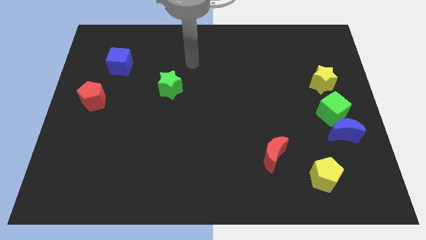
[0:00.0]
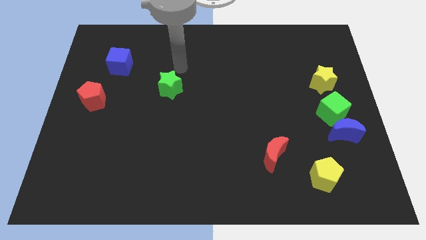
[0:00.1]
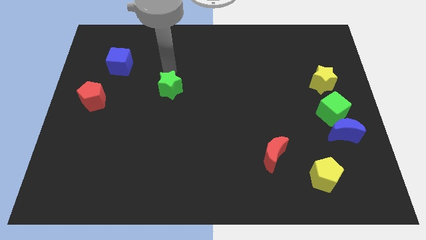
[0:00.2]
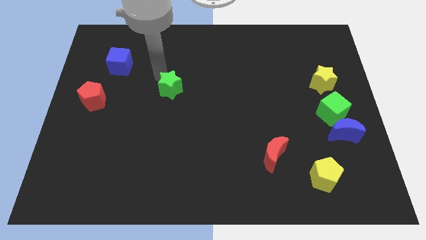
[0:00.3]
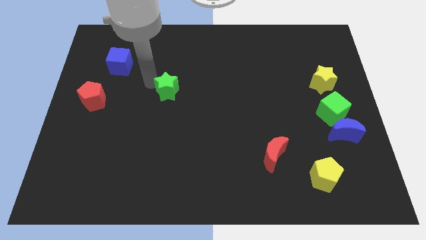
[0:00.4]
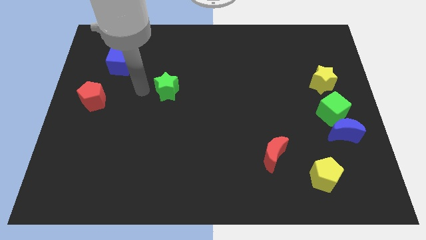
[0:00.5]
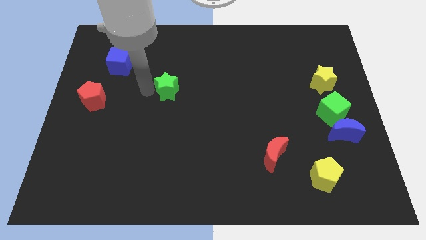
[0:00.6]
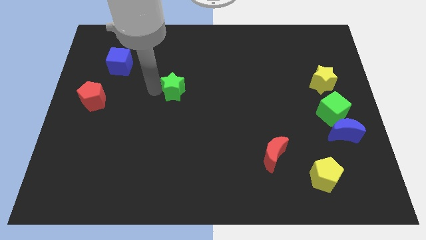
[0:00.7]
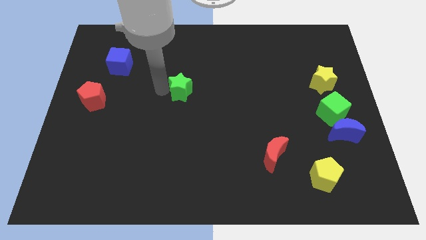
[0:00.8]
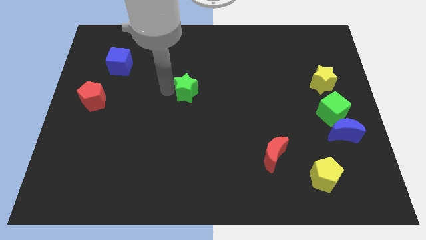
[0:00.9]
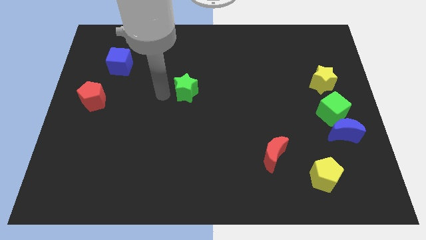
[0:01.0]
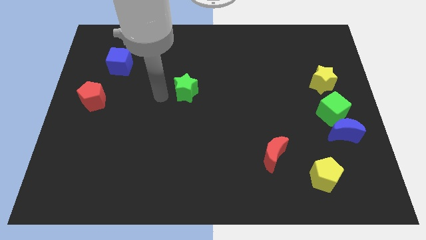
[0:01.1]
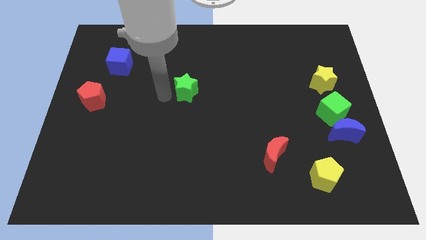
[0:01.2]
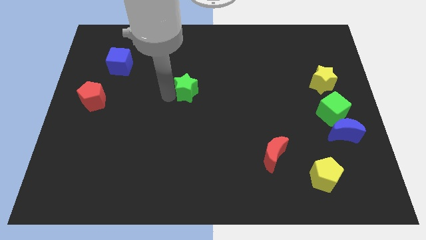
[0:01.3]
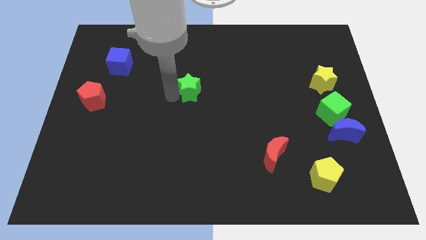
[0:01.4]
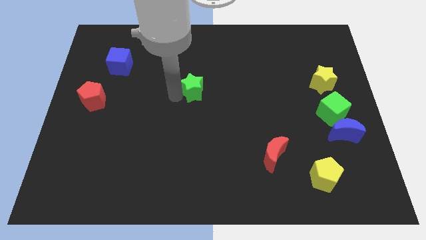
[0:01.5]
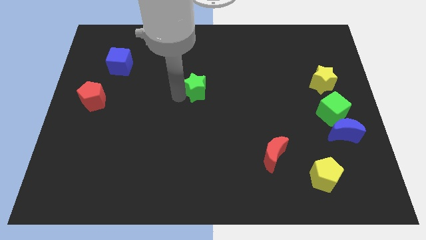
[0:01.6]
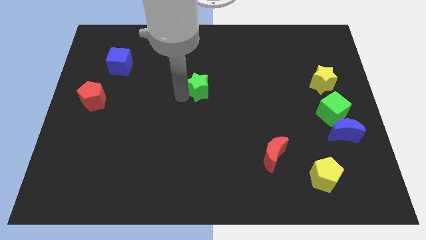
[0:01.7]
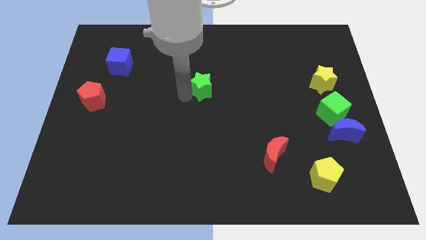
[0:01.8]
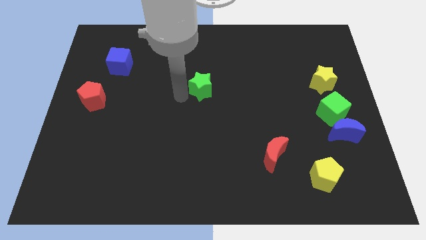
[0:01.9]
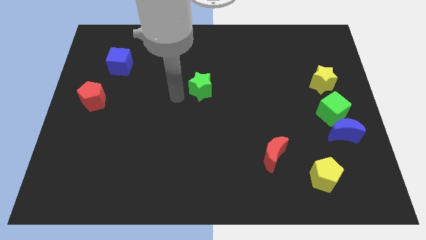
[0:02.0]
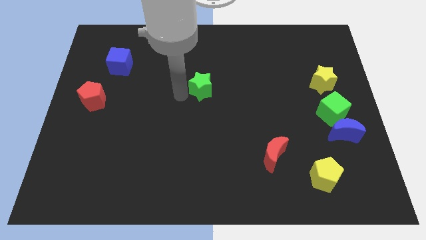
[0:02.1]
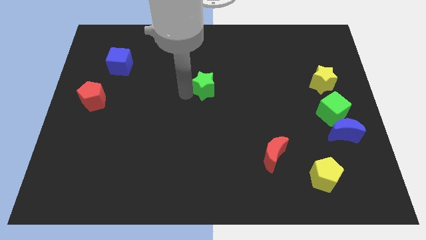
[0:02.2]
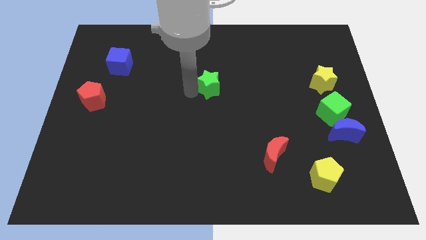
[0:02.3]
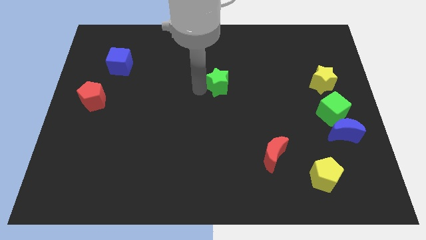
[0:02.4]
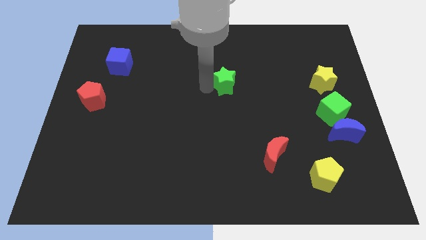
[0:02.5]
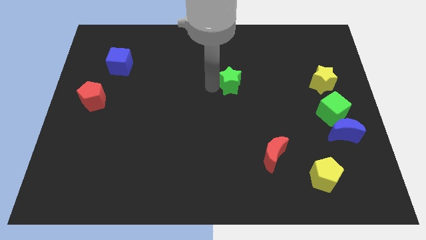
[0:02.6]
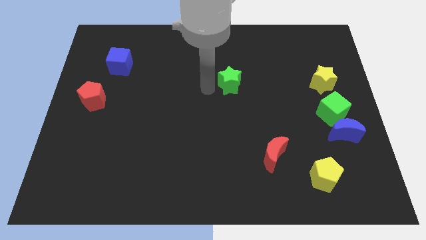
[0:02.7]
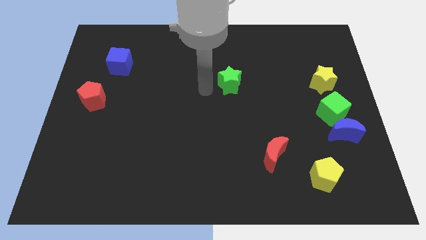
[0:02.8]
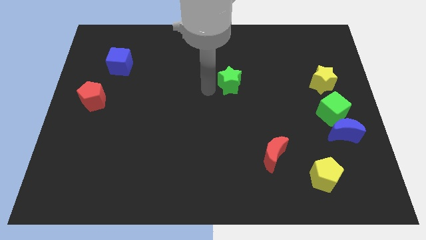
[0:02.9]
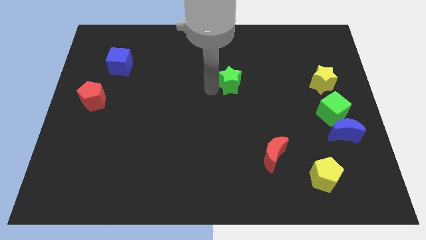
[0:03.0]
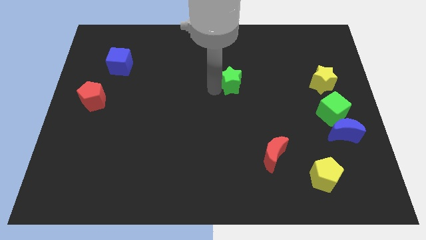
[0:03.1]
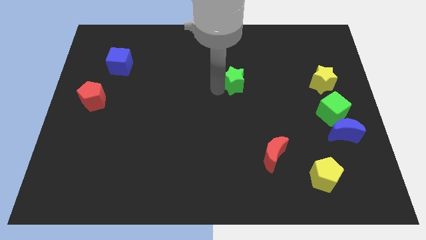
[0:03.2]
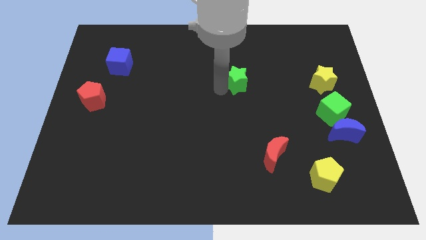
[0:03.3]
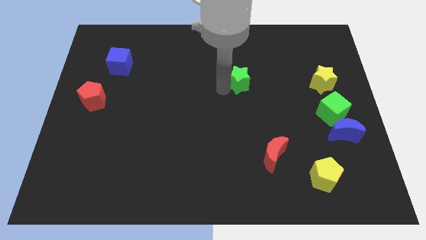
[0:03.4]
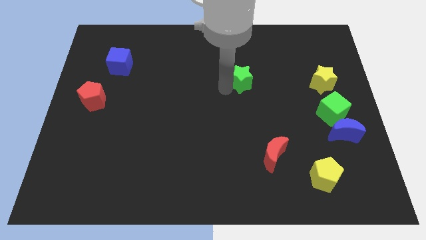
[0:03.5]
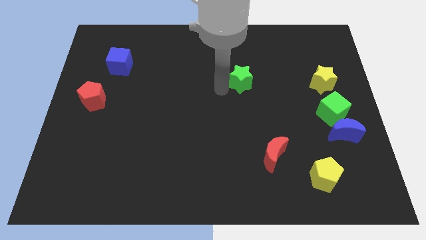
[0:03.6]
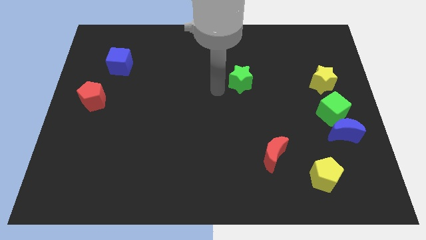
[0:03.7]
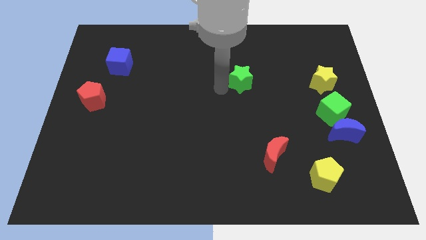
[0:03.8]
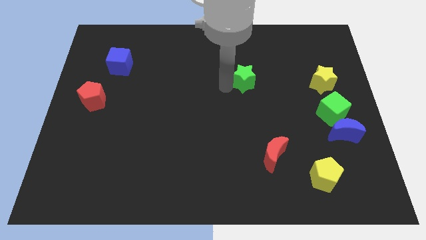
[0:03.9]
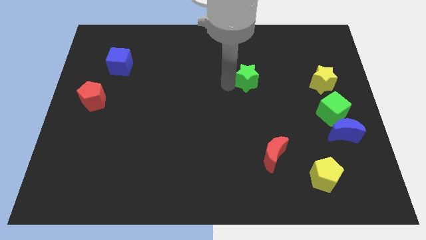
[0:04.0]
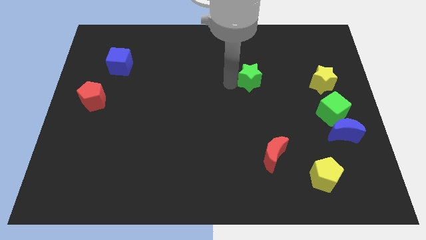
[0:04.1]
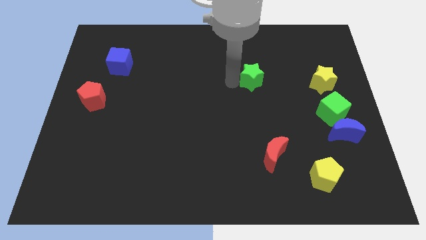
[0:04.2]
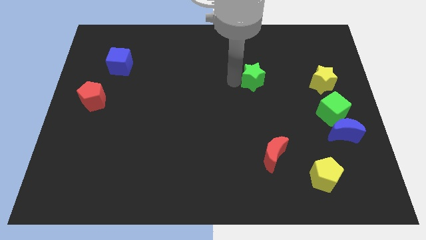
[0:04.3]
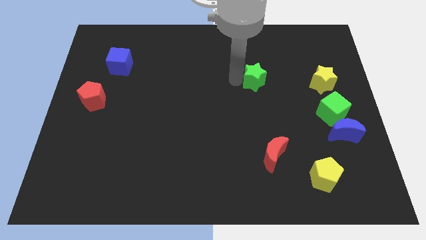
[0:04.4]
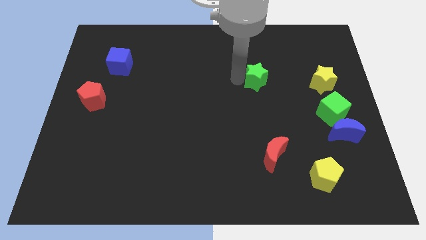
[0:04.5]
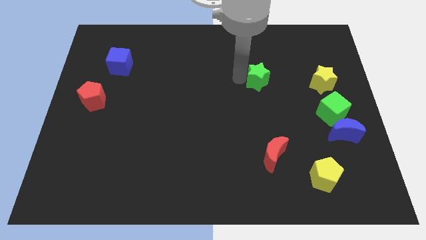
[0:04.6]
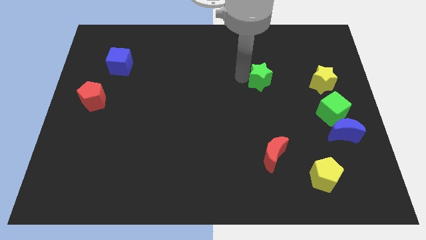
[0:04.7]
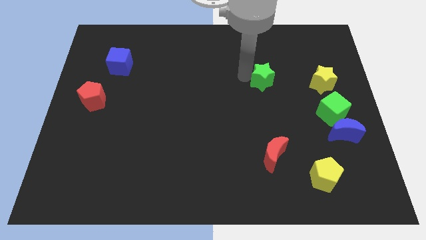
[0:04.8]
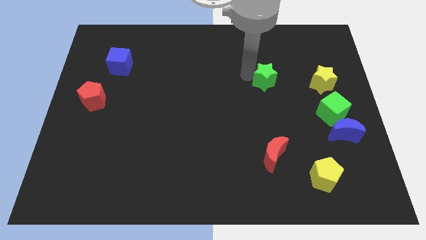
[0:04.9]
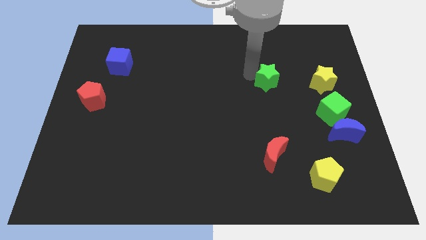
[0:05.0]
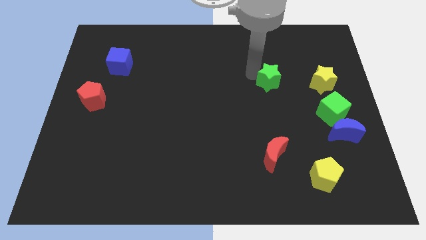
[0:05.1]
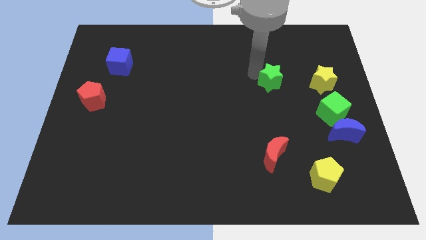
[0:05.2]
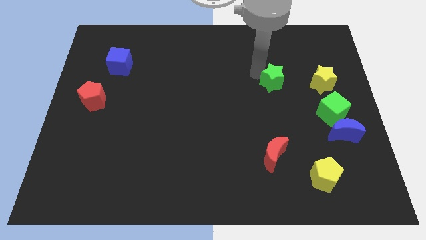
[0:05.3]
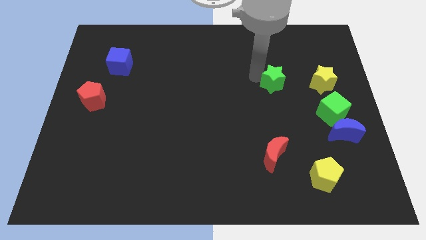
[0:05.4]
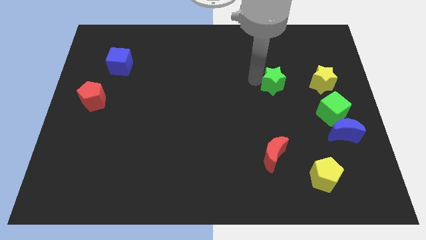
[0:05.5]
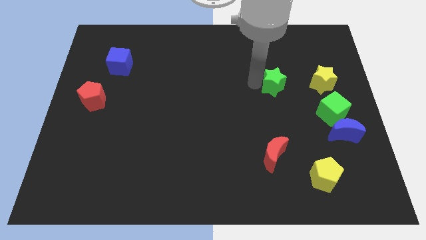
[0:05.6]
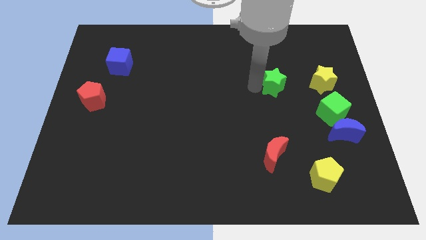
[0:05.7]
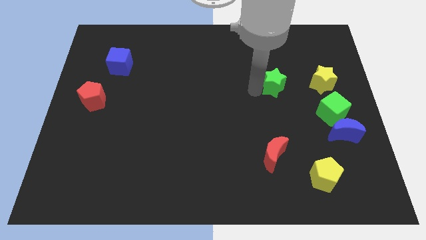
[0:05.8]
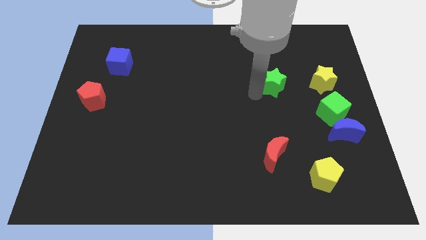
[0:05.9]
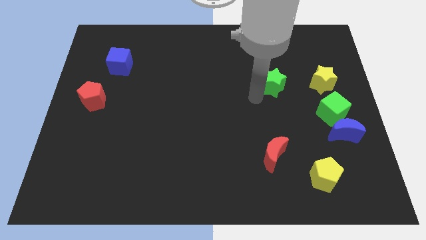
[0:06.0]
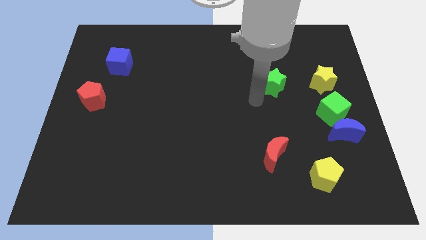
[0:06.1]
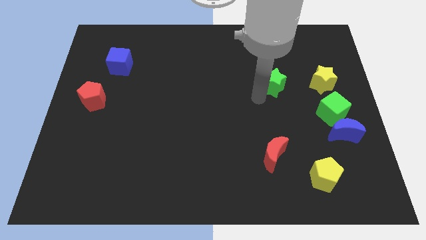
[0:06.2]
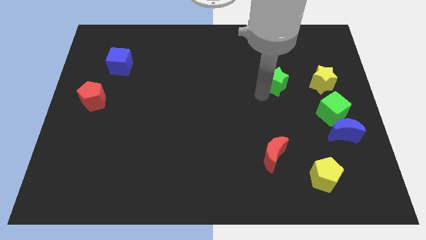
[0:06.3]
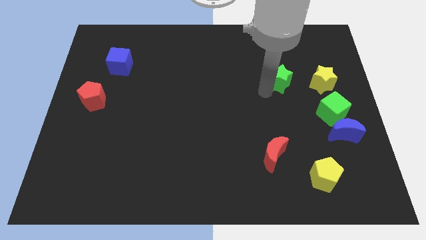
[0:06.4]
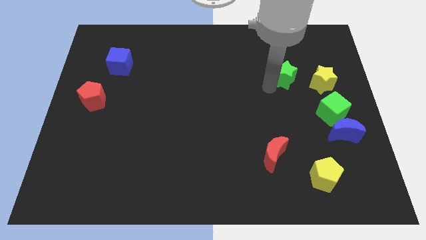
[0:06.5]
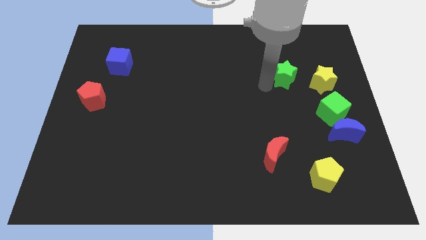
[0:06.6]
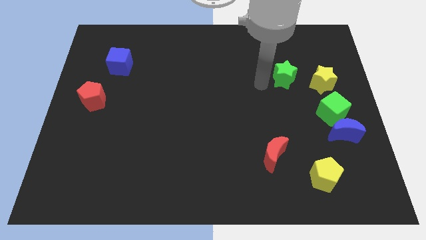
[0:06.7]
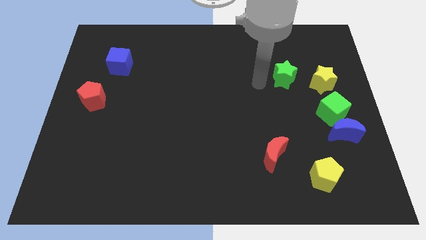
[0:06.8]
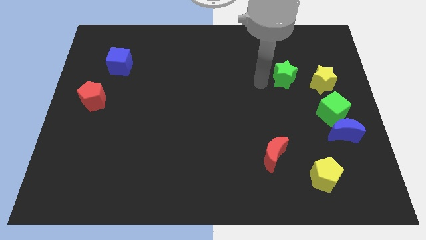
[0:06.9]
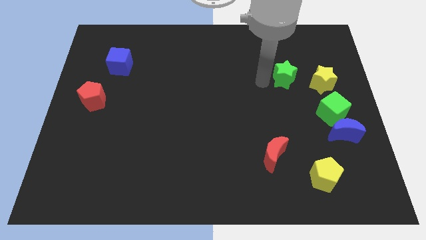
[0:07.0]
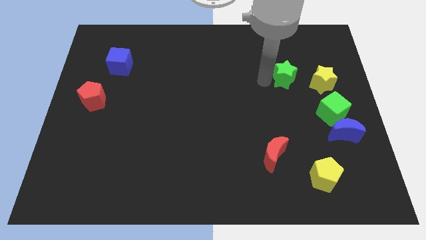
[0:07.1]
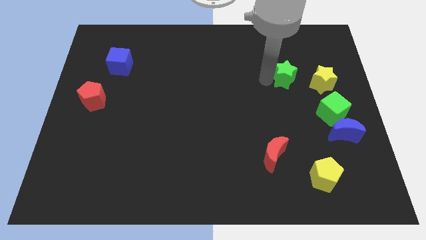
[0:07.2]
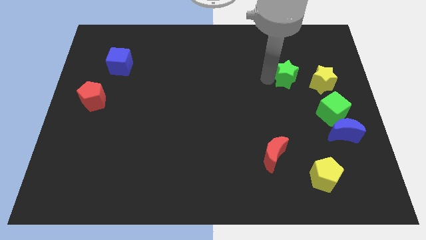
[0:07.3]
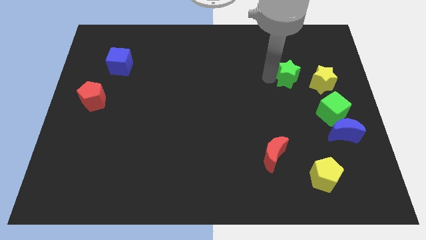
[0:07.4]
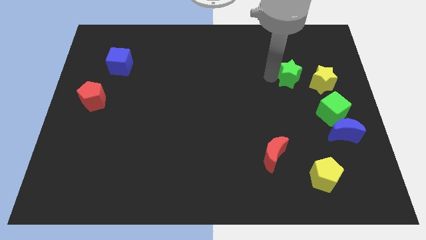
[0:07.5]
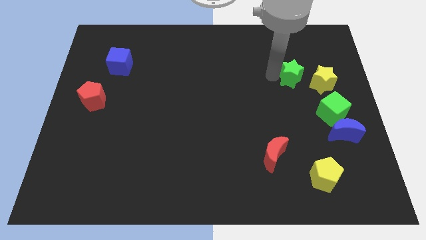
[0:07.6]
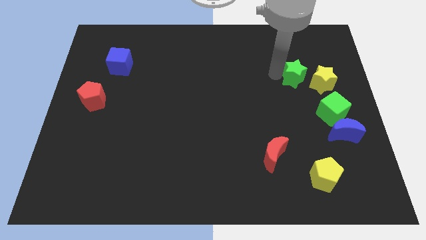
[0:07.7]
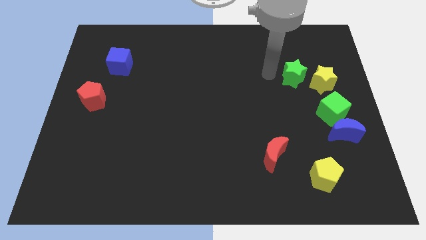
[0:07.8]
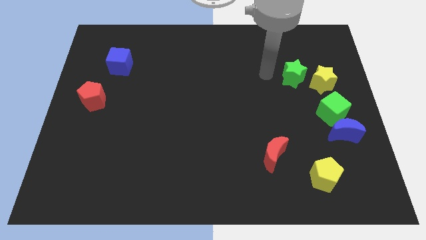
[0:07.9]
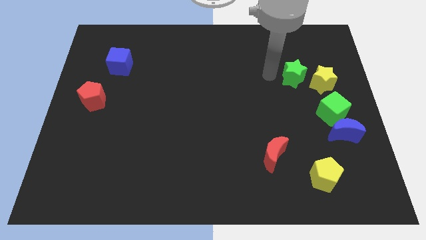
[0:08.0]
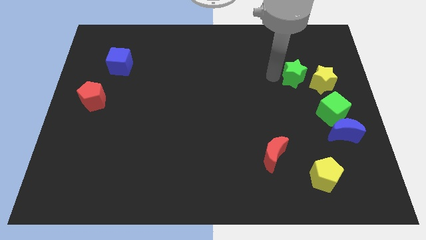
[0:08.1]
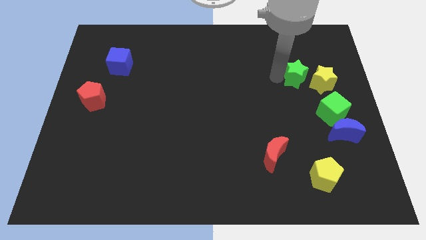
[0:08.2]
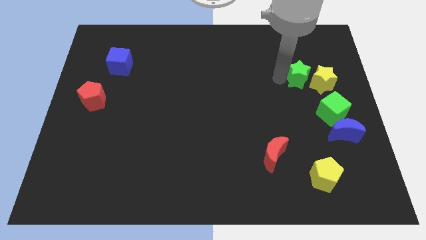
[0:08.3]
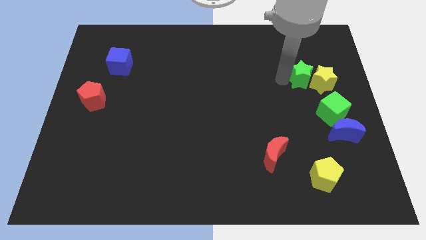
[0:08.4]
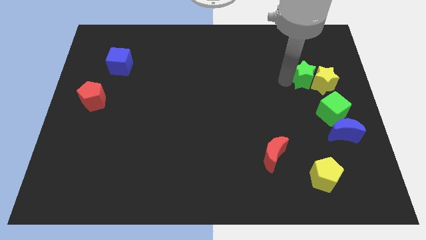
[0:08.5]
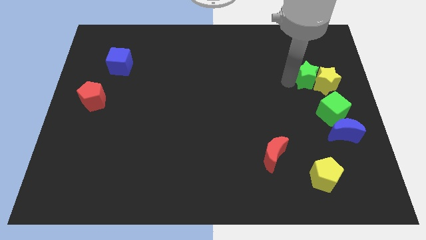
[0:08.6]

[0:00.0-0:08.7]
put the green star to the top of the green cube
